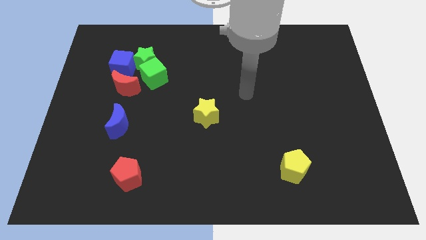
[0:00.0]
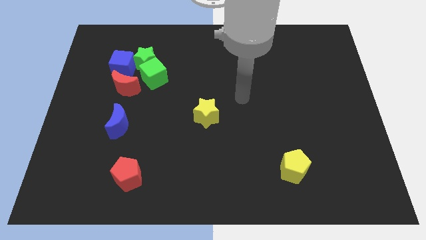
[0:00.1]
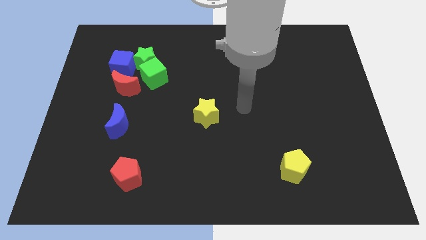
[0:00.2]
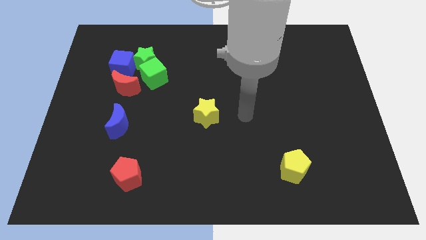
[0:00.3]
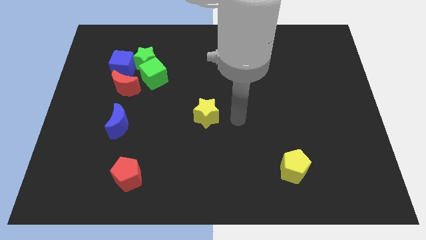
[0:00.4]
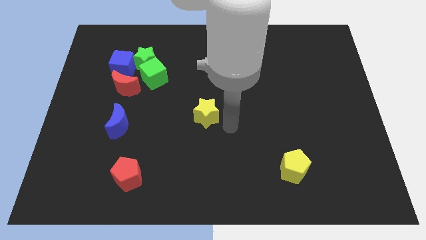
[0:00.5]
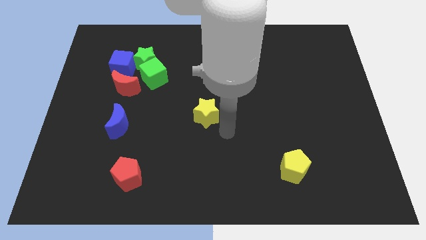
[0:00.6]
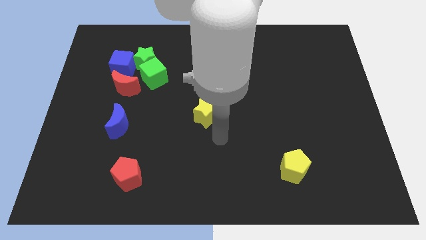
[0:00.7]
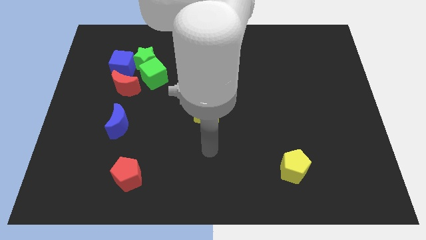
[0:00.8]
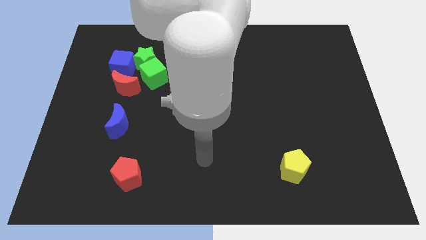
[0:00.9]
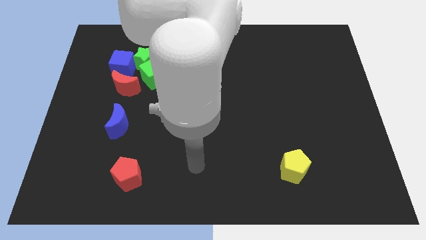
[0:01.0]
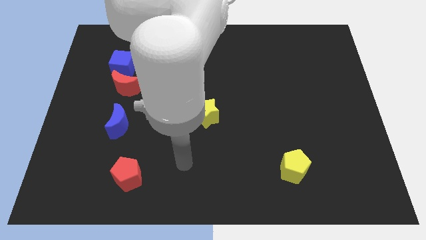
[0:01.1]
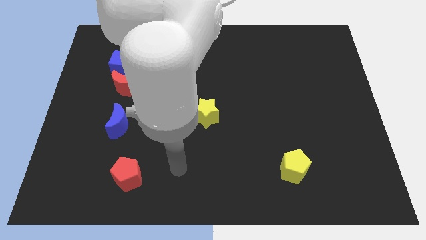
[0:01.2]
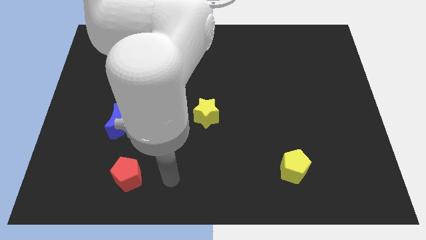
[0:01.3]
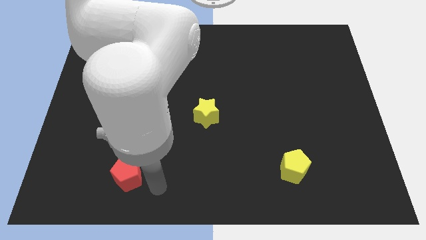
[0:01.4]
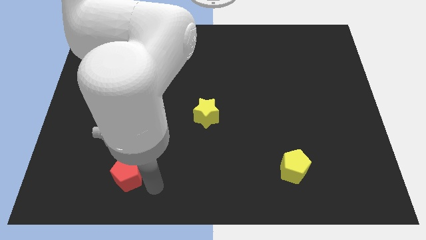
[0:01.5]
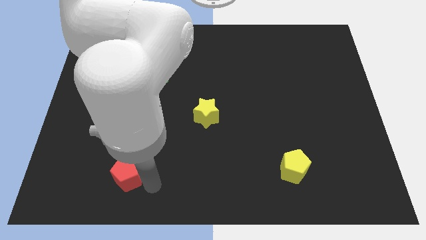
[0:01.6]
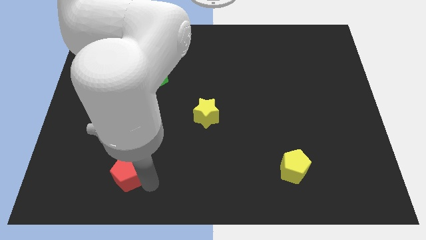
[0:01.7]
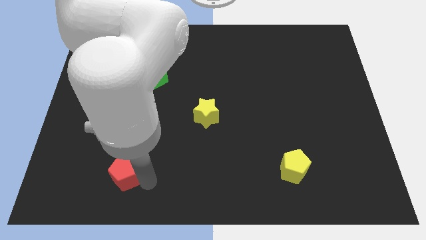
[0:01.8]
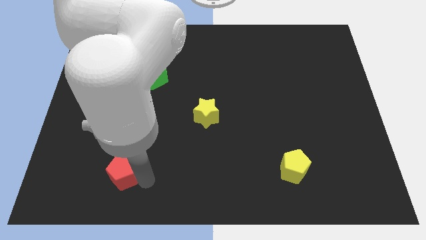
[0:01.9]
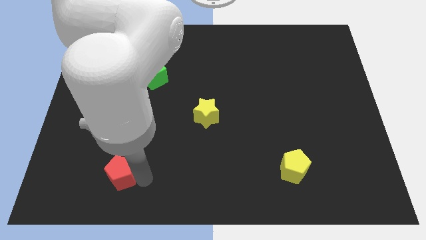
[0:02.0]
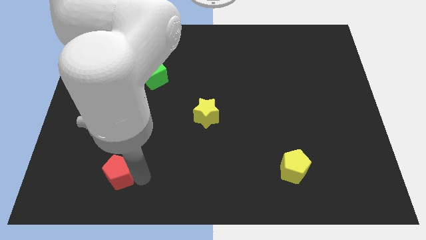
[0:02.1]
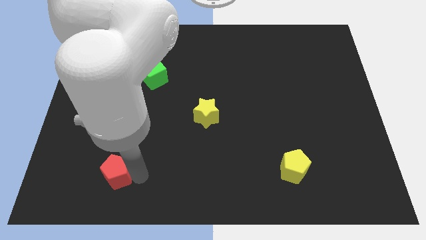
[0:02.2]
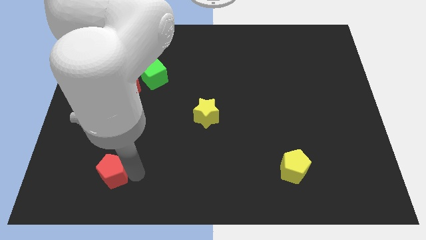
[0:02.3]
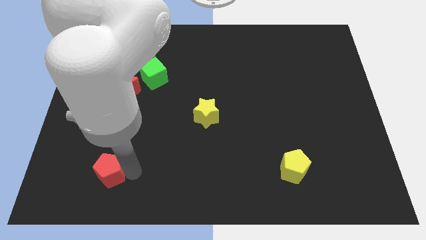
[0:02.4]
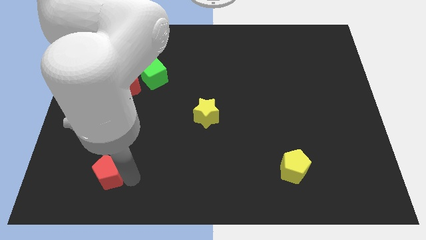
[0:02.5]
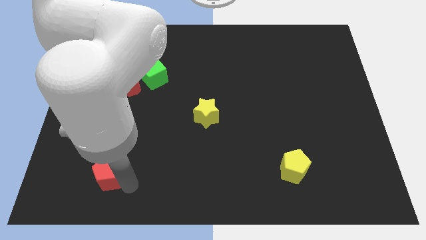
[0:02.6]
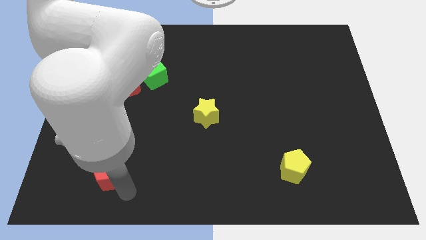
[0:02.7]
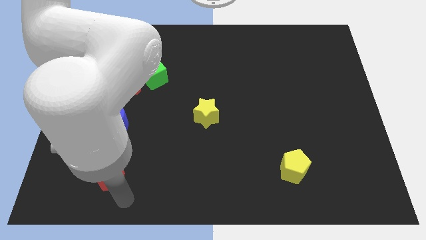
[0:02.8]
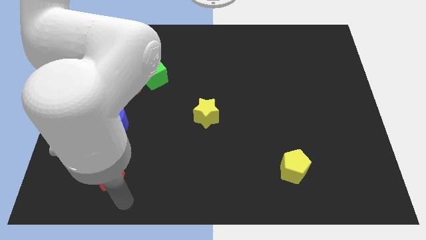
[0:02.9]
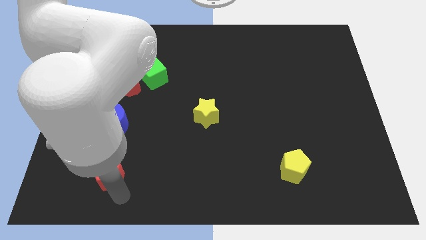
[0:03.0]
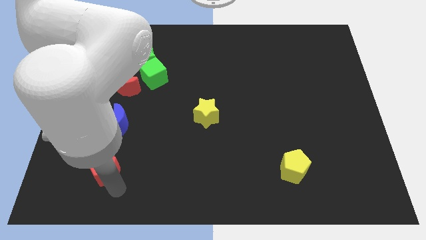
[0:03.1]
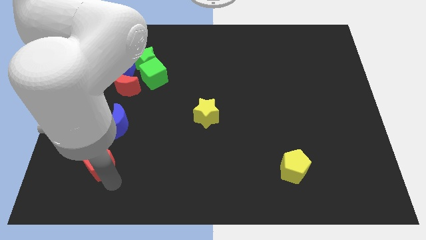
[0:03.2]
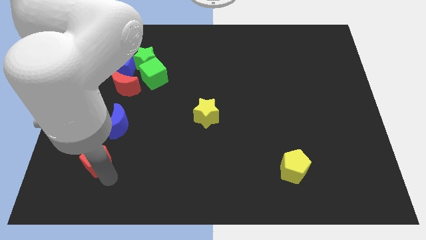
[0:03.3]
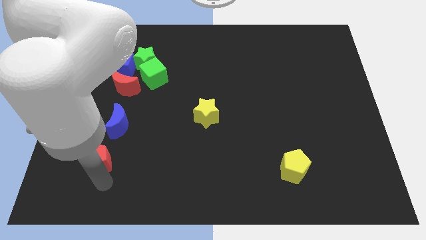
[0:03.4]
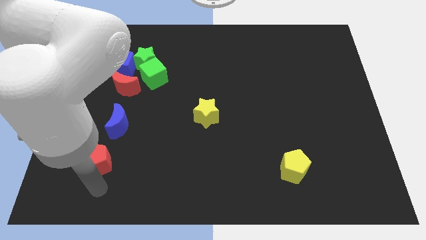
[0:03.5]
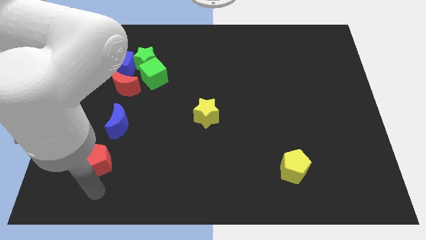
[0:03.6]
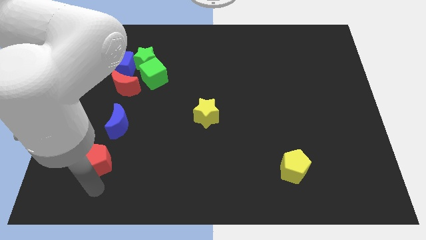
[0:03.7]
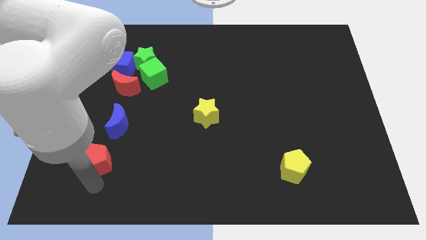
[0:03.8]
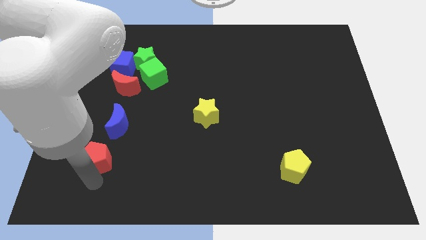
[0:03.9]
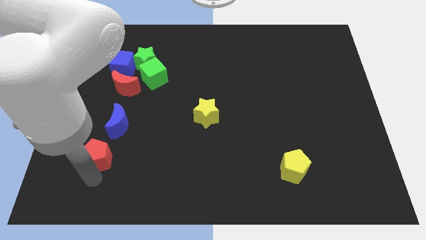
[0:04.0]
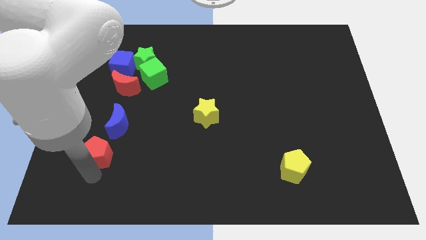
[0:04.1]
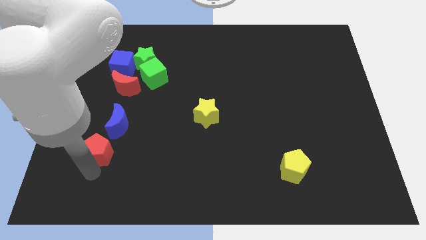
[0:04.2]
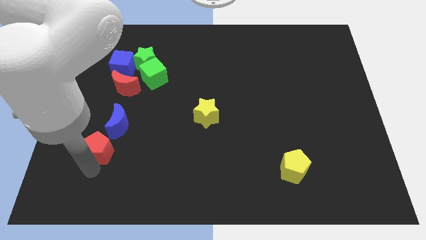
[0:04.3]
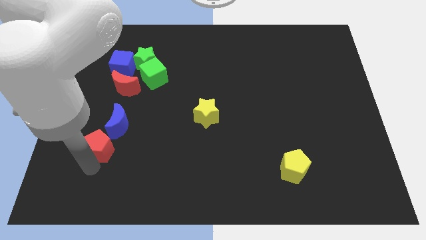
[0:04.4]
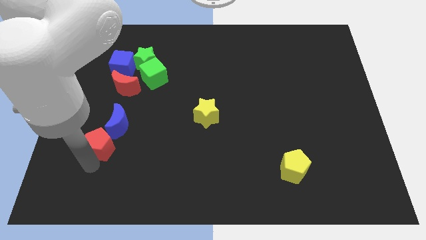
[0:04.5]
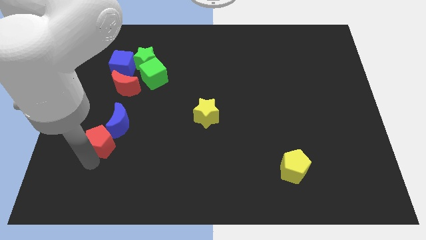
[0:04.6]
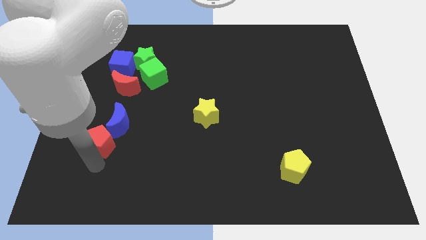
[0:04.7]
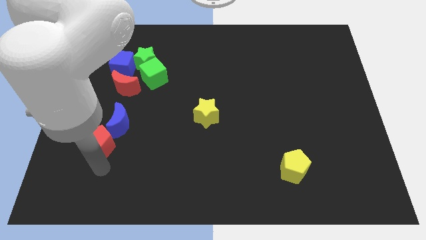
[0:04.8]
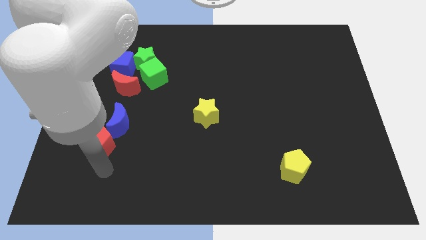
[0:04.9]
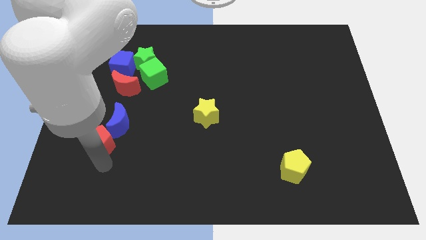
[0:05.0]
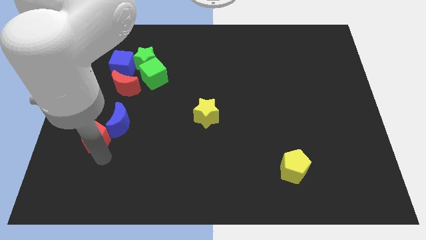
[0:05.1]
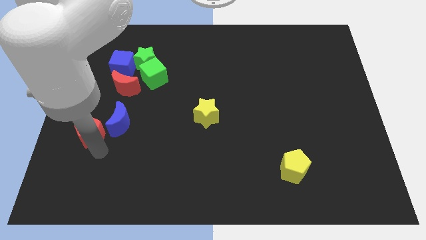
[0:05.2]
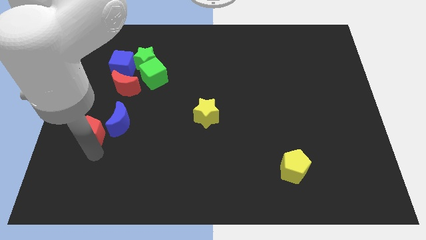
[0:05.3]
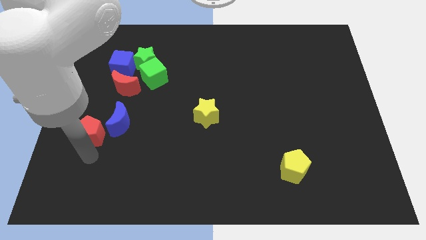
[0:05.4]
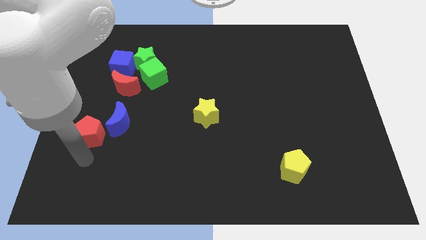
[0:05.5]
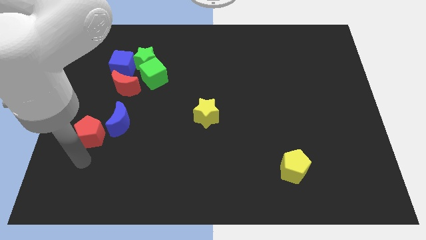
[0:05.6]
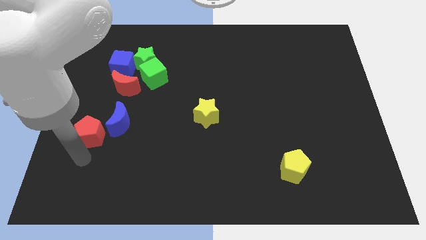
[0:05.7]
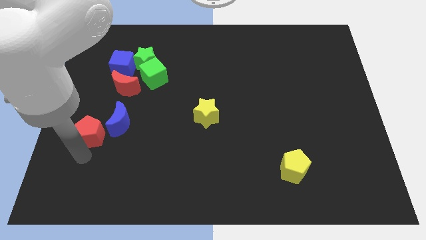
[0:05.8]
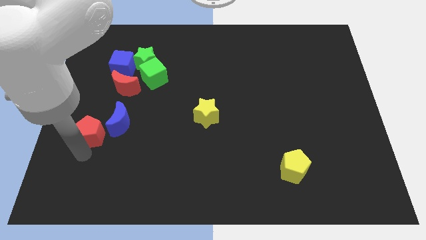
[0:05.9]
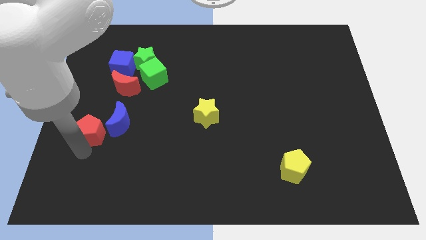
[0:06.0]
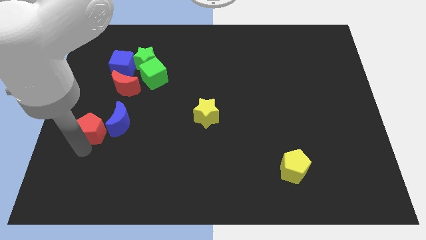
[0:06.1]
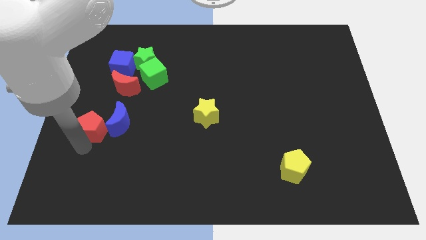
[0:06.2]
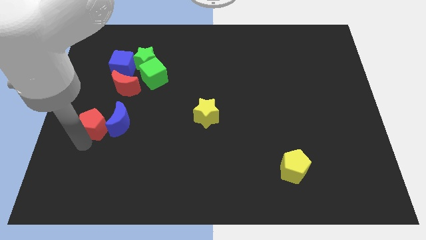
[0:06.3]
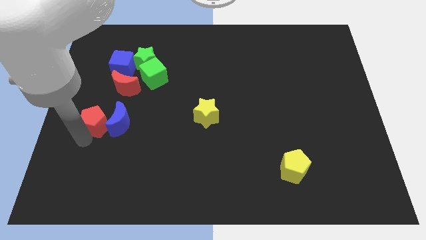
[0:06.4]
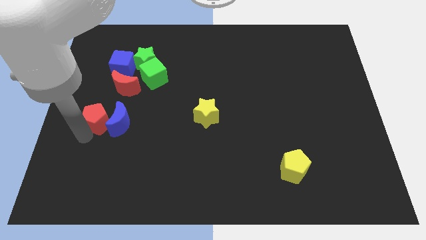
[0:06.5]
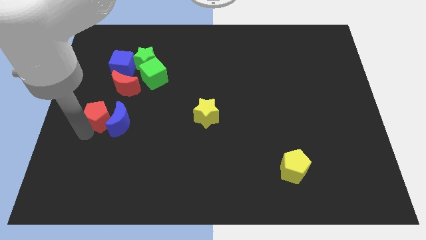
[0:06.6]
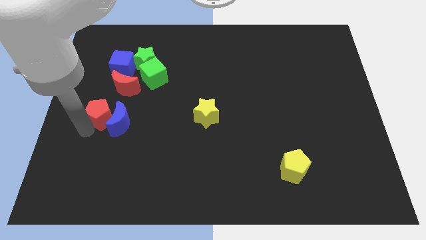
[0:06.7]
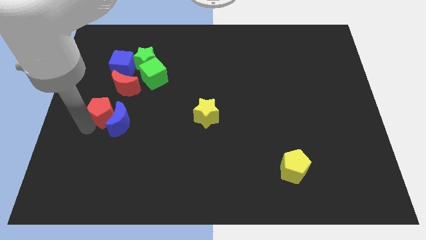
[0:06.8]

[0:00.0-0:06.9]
move the red pentagon below the blue cube

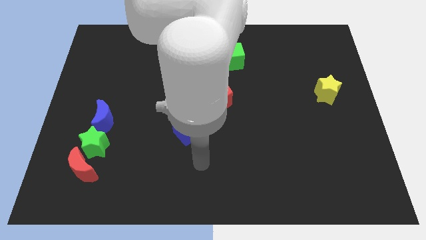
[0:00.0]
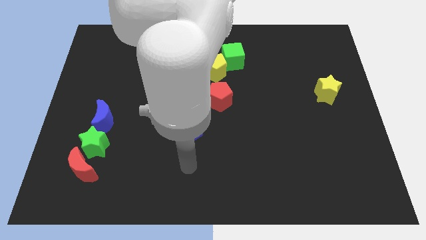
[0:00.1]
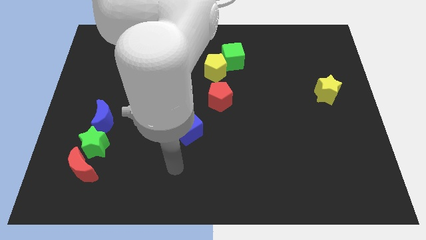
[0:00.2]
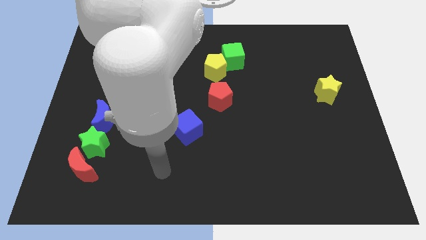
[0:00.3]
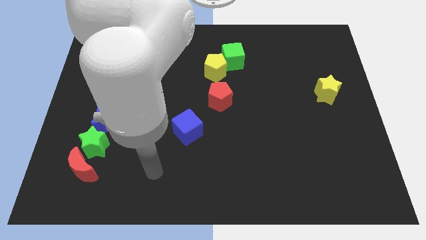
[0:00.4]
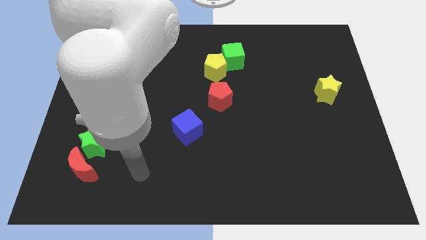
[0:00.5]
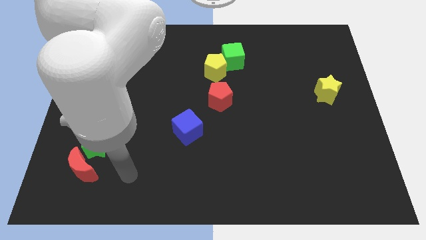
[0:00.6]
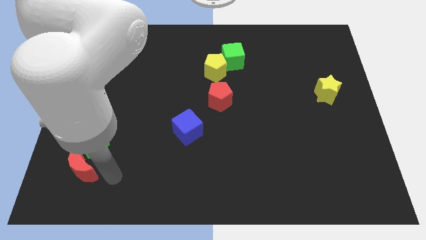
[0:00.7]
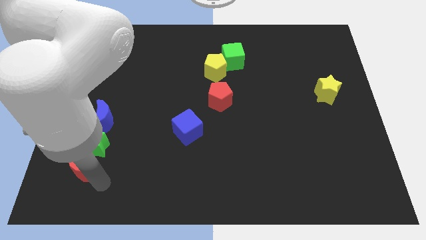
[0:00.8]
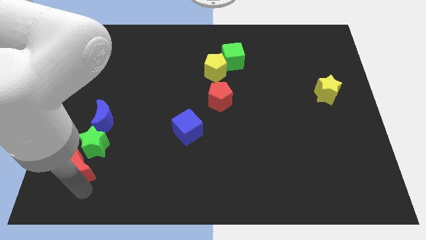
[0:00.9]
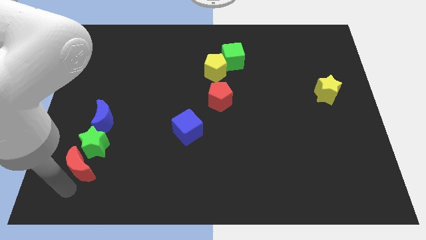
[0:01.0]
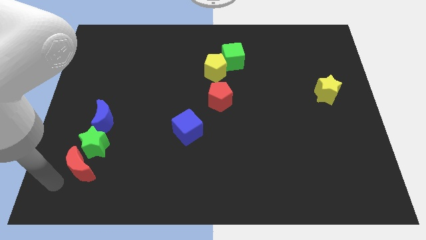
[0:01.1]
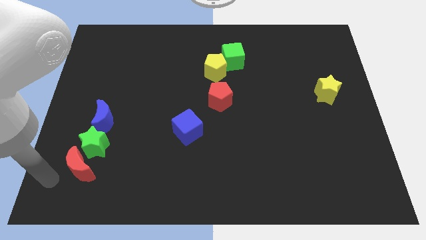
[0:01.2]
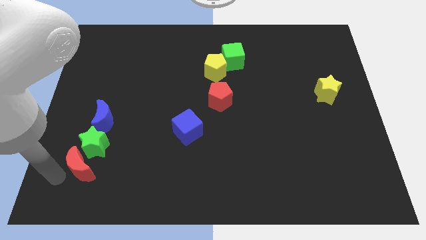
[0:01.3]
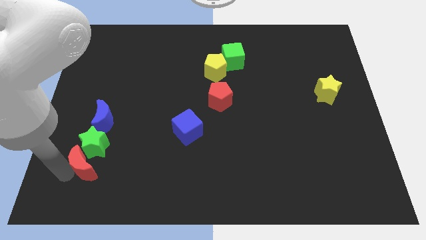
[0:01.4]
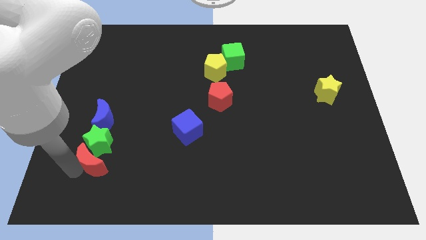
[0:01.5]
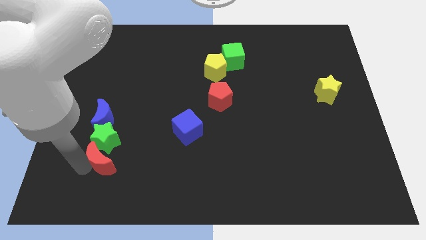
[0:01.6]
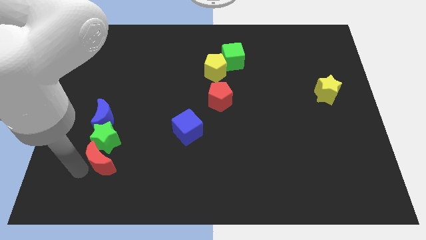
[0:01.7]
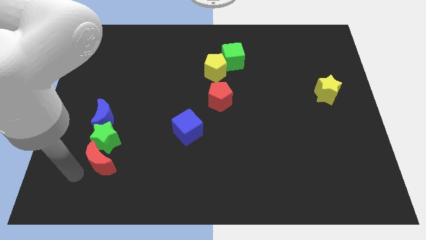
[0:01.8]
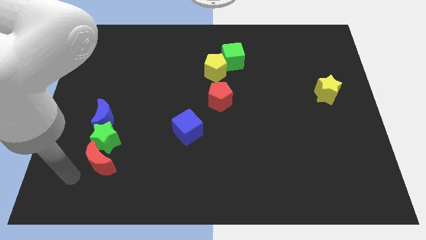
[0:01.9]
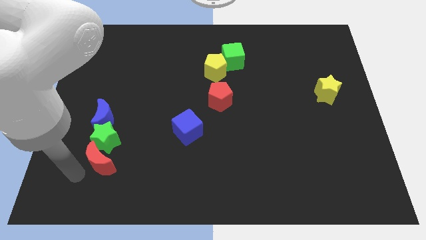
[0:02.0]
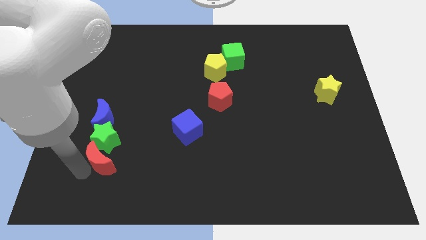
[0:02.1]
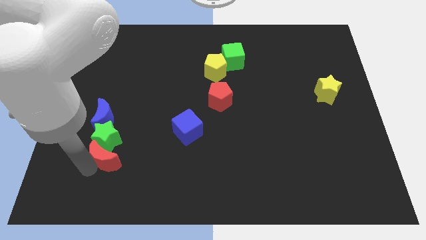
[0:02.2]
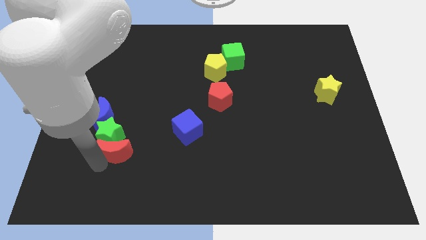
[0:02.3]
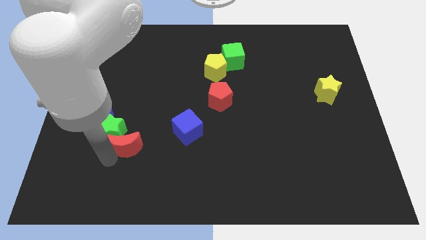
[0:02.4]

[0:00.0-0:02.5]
move the red moon just left of the blue cube
